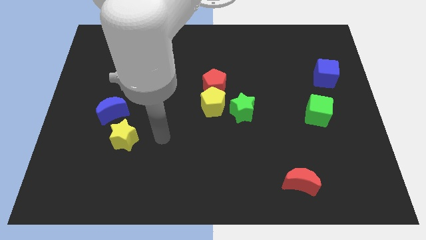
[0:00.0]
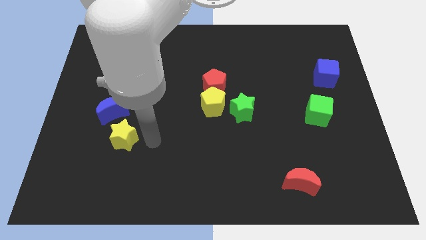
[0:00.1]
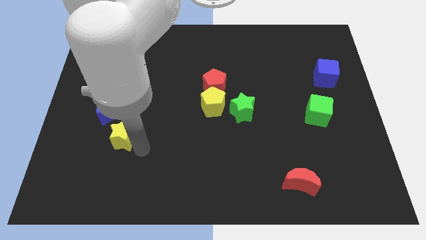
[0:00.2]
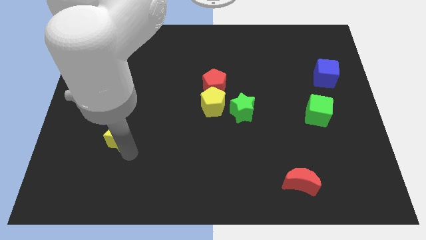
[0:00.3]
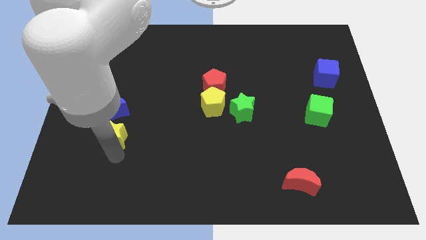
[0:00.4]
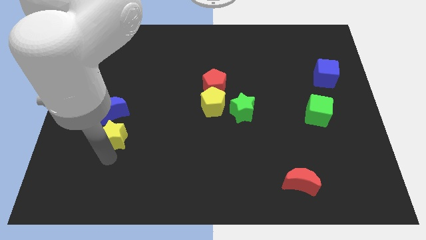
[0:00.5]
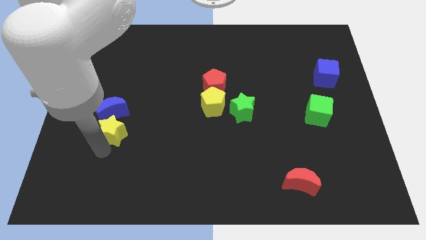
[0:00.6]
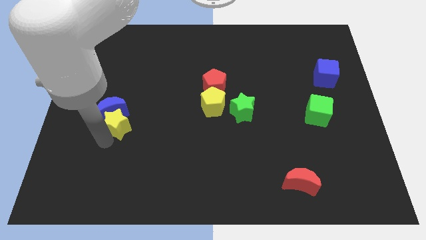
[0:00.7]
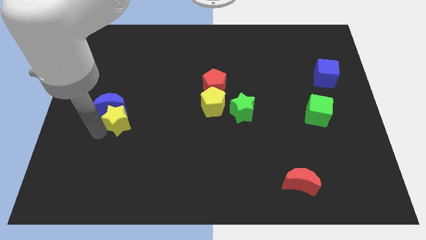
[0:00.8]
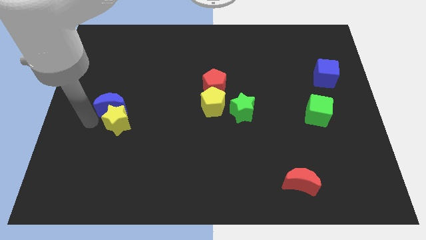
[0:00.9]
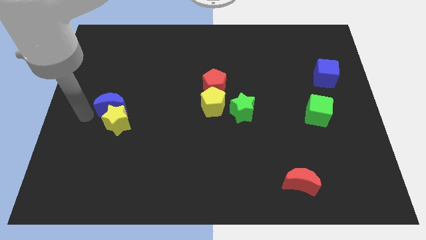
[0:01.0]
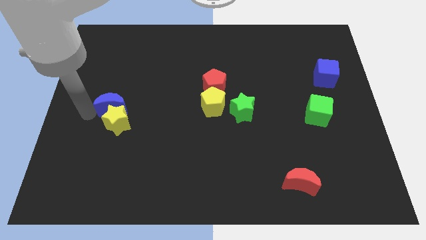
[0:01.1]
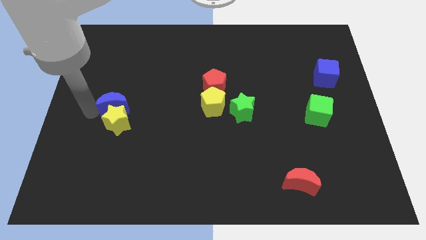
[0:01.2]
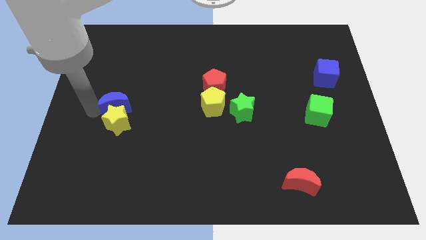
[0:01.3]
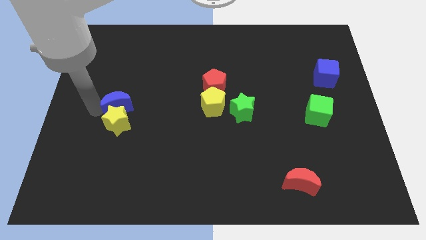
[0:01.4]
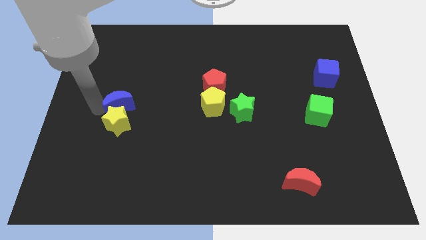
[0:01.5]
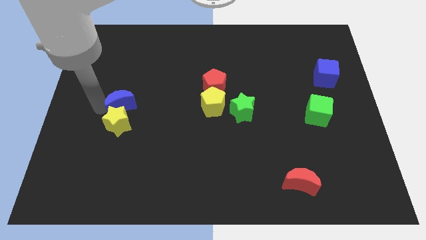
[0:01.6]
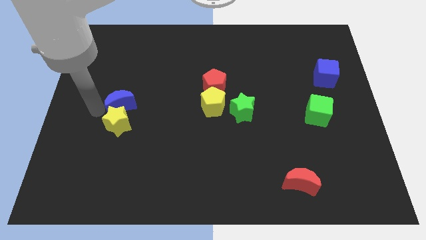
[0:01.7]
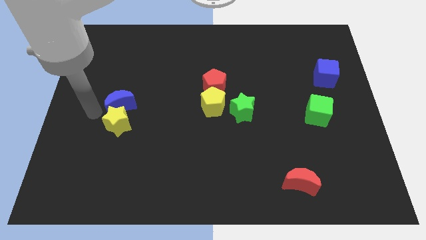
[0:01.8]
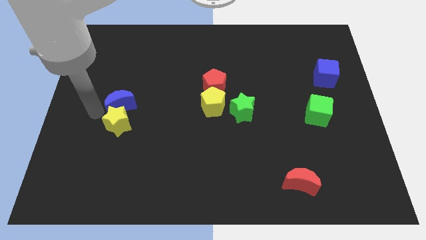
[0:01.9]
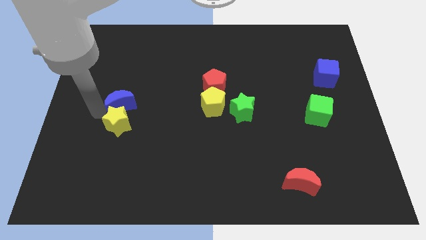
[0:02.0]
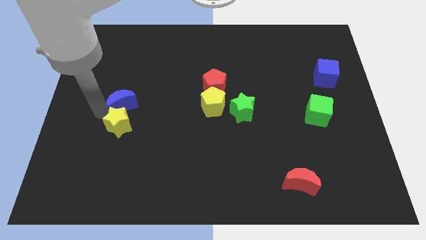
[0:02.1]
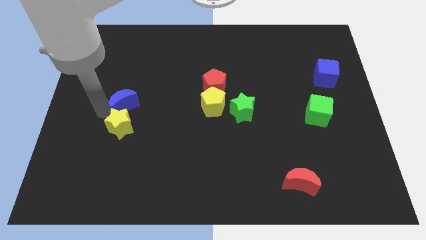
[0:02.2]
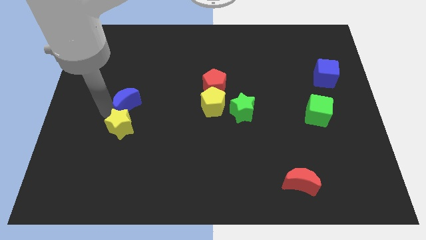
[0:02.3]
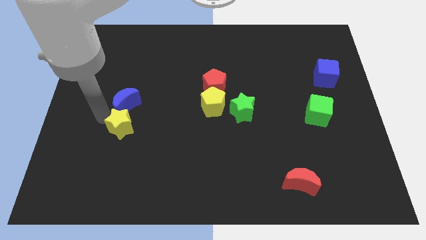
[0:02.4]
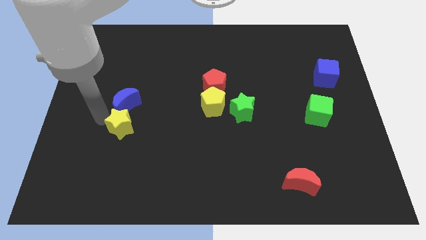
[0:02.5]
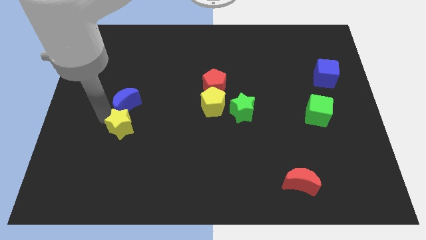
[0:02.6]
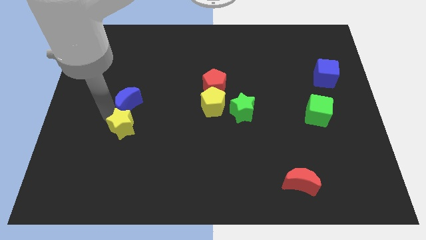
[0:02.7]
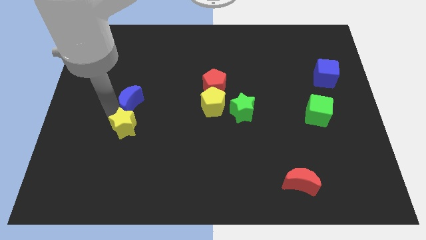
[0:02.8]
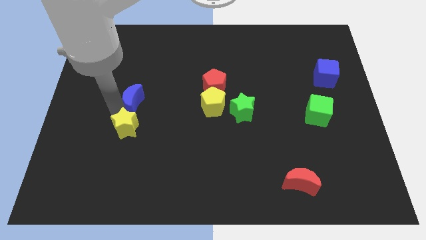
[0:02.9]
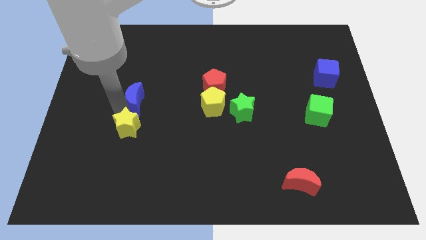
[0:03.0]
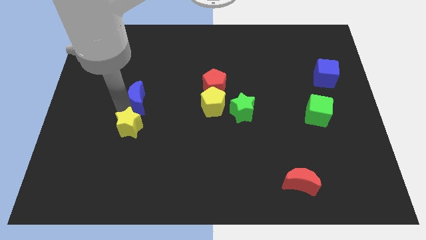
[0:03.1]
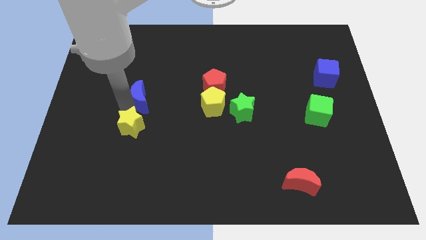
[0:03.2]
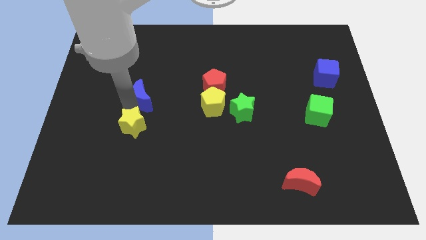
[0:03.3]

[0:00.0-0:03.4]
slide the blue moon somewhat up and then right

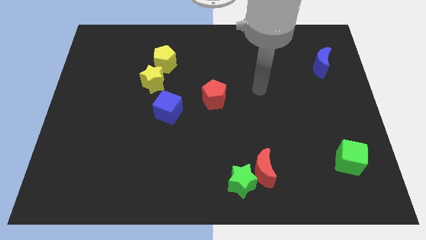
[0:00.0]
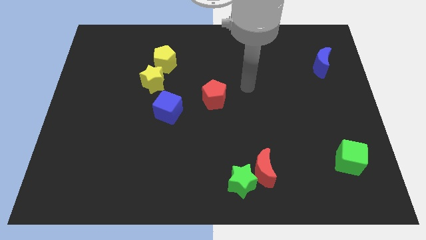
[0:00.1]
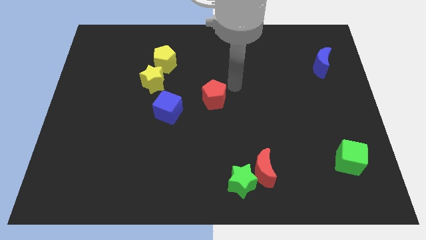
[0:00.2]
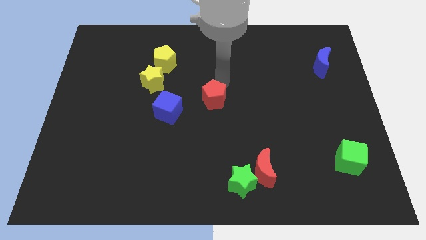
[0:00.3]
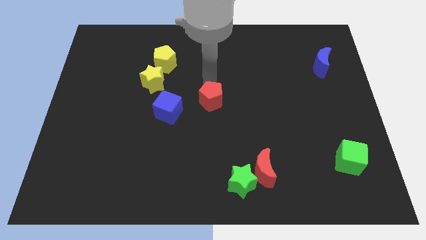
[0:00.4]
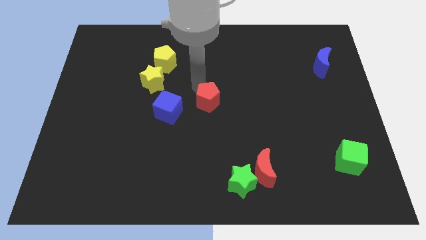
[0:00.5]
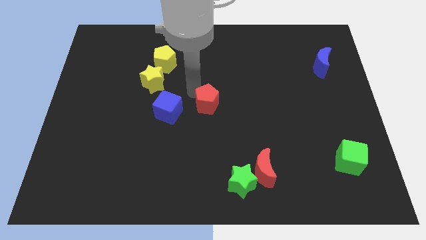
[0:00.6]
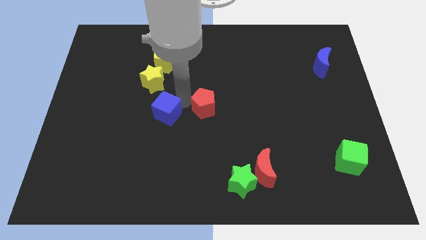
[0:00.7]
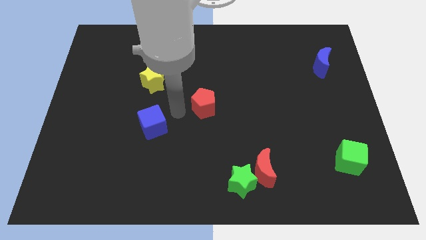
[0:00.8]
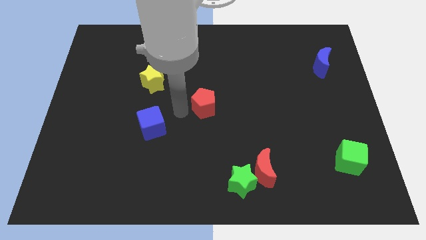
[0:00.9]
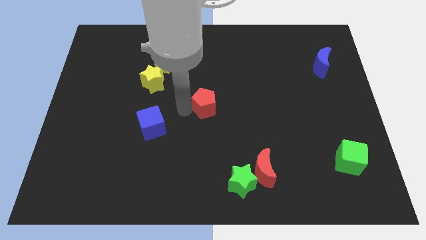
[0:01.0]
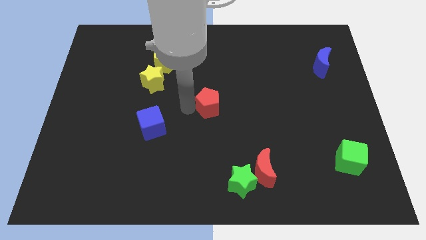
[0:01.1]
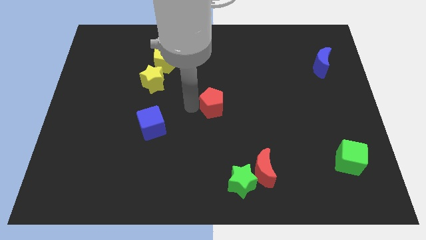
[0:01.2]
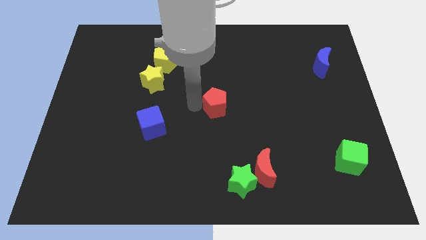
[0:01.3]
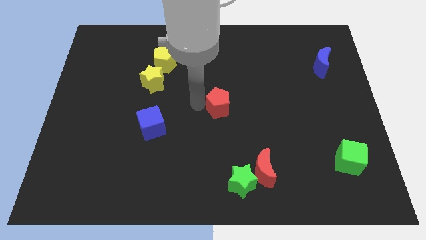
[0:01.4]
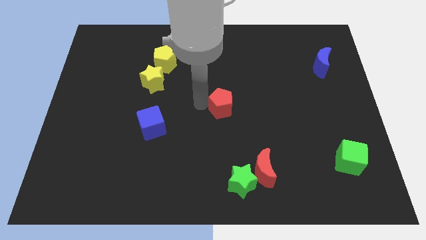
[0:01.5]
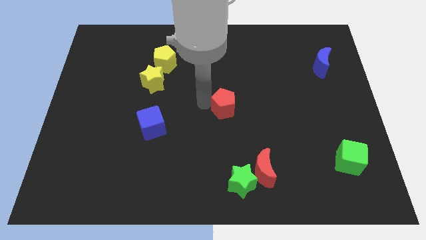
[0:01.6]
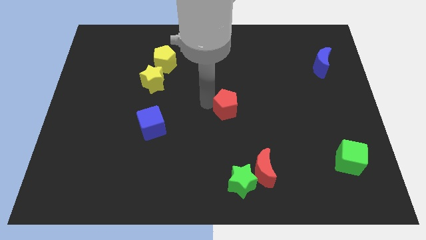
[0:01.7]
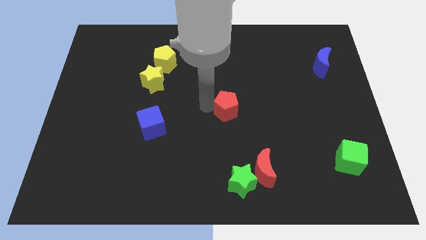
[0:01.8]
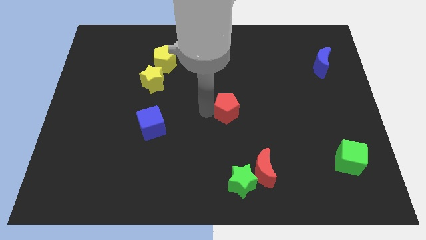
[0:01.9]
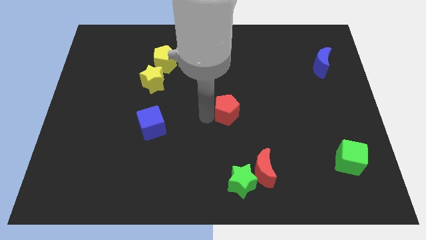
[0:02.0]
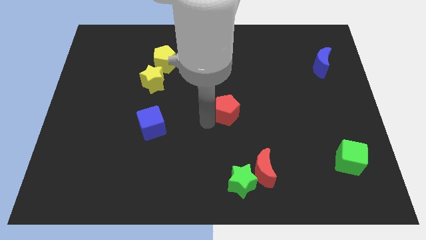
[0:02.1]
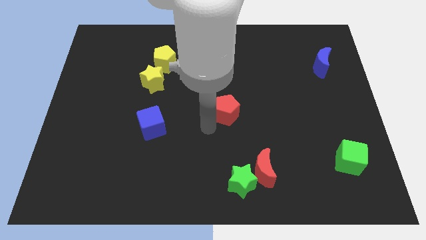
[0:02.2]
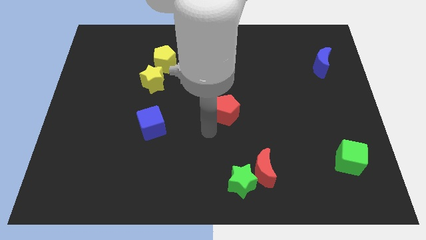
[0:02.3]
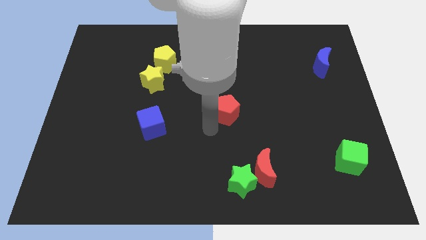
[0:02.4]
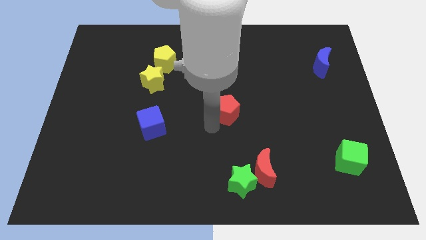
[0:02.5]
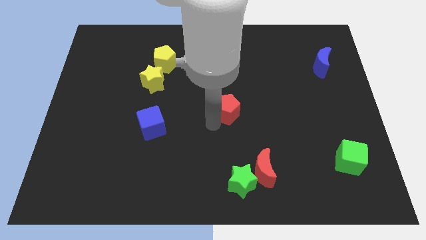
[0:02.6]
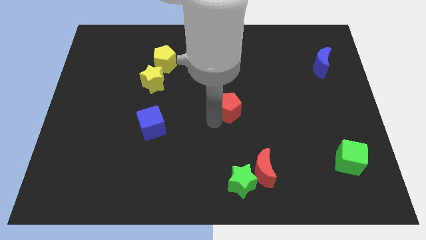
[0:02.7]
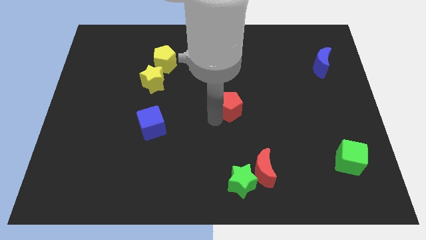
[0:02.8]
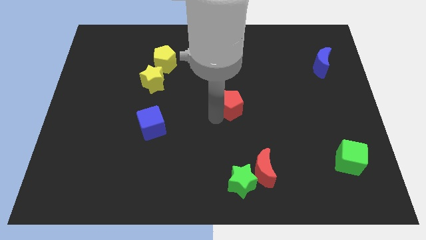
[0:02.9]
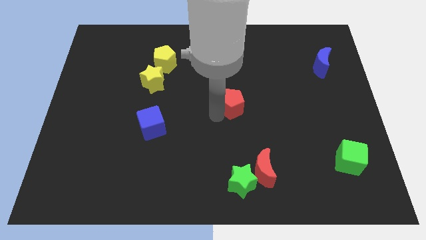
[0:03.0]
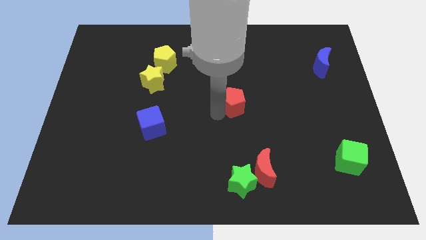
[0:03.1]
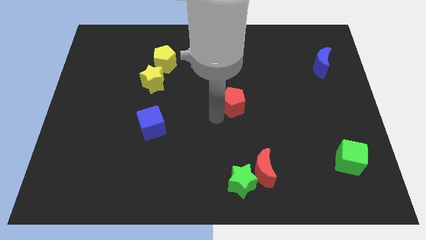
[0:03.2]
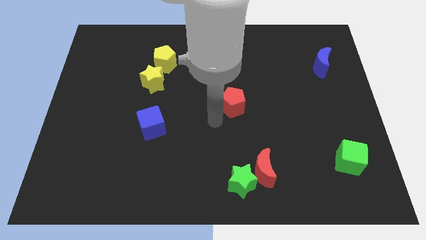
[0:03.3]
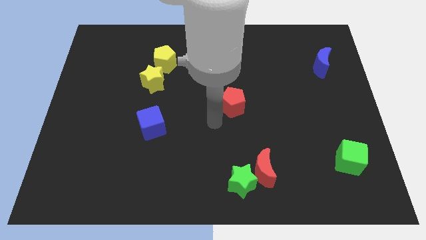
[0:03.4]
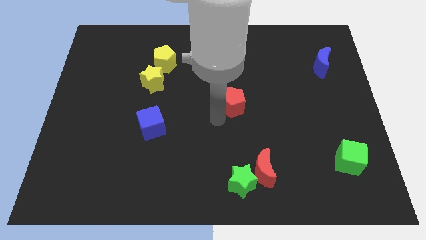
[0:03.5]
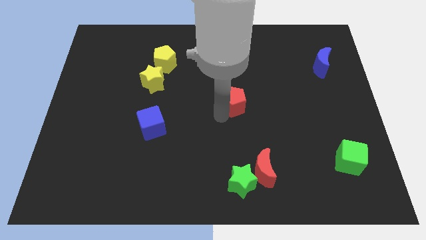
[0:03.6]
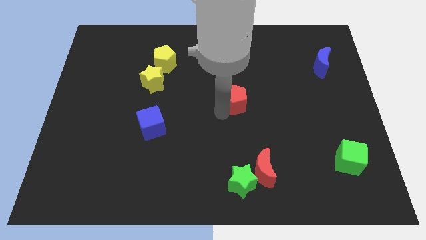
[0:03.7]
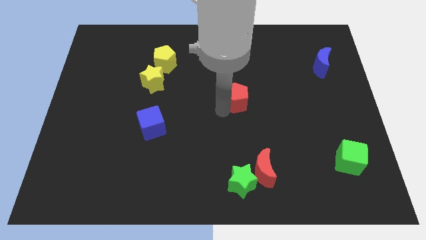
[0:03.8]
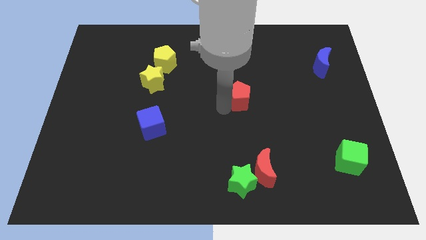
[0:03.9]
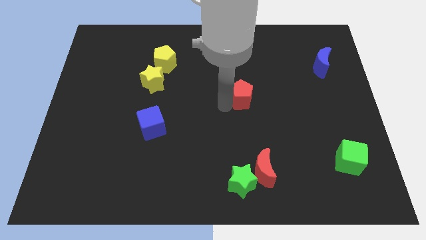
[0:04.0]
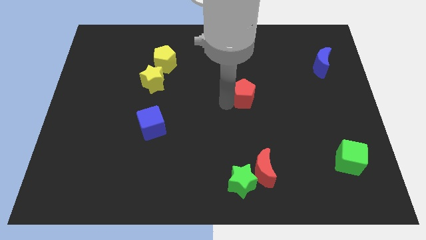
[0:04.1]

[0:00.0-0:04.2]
slightly slide the red pentagon right
